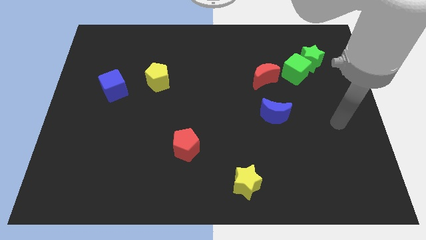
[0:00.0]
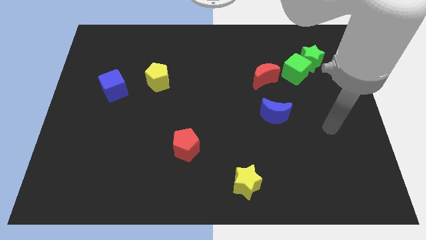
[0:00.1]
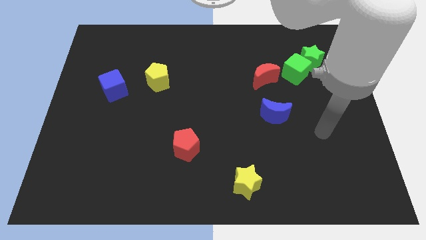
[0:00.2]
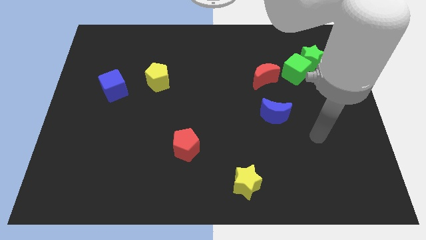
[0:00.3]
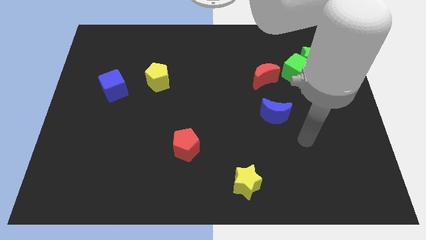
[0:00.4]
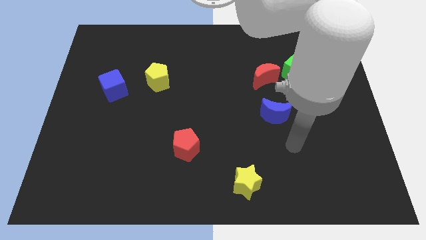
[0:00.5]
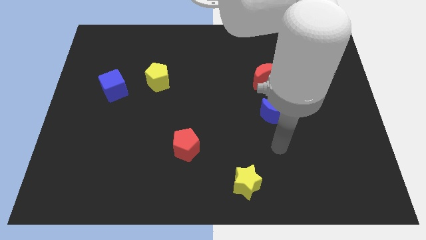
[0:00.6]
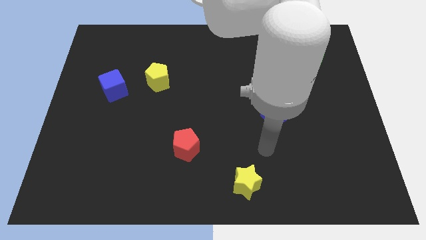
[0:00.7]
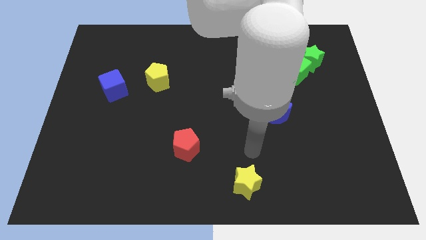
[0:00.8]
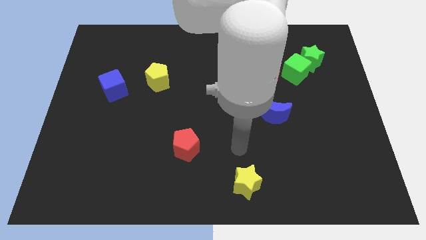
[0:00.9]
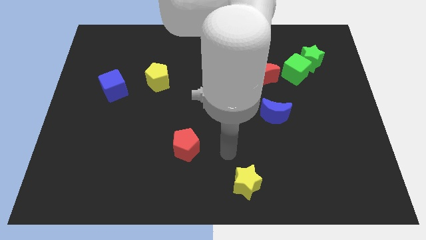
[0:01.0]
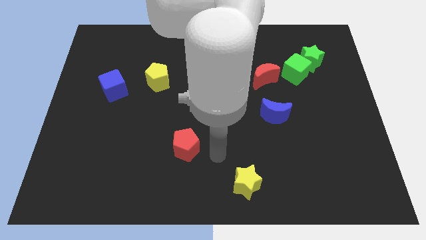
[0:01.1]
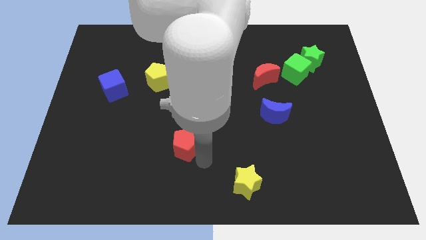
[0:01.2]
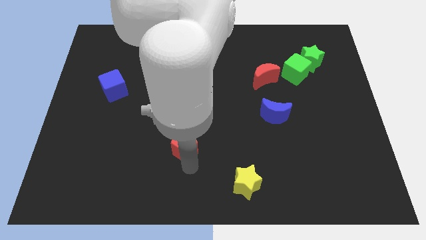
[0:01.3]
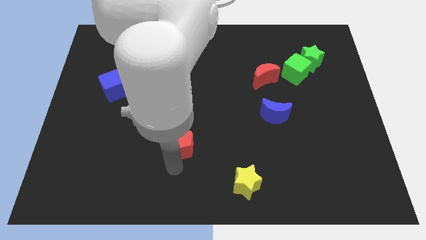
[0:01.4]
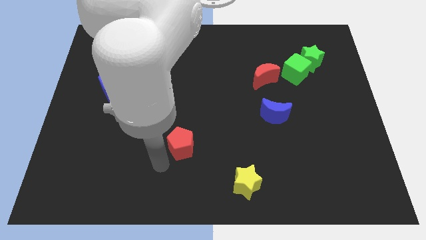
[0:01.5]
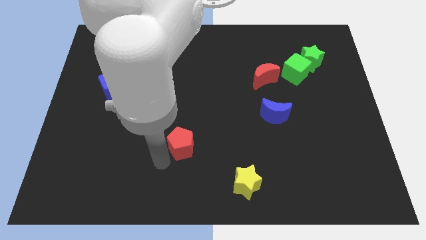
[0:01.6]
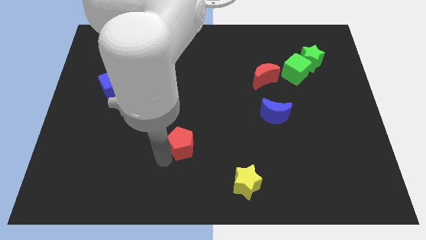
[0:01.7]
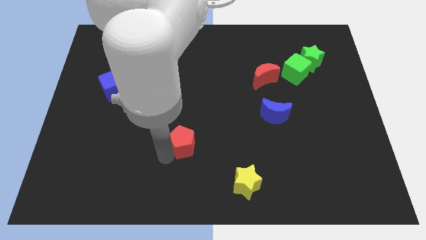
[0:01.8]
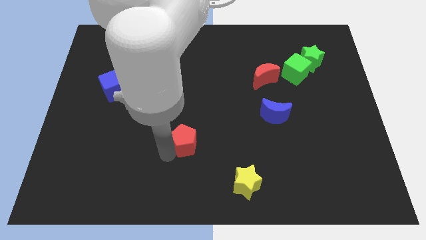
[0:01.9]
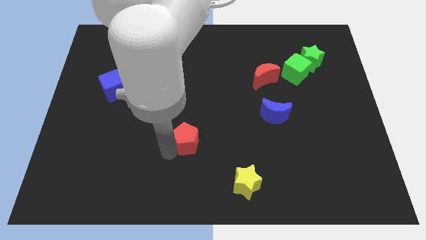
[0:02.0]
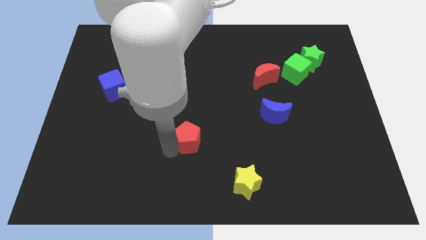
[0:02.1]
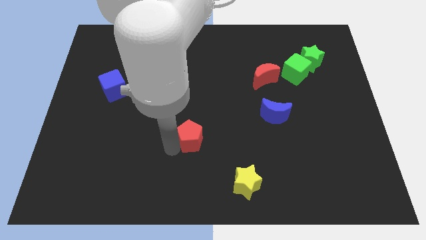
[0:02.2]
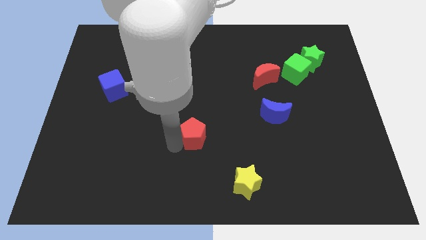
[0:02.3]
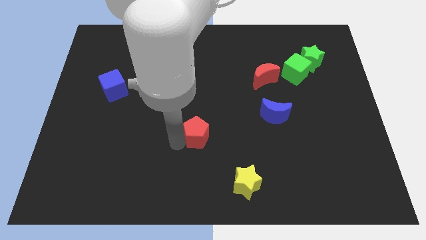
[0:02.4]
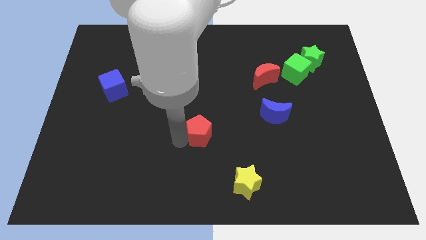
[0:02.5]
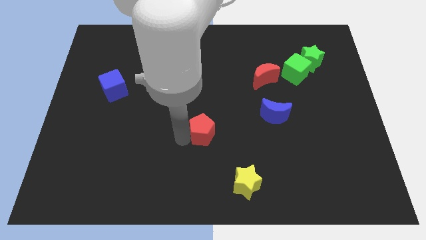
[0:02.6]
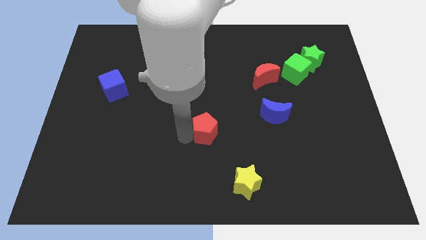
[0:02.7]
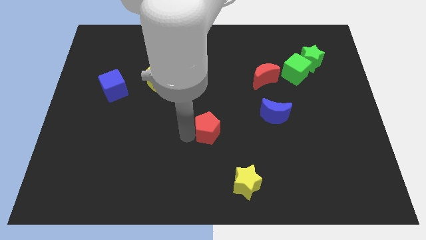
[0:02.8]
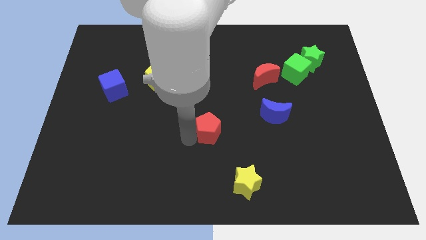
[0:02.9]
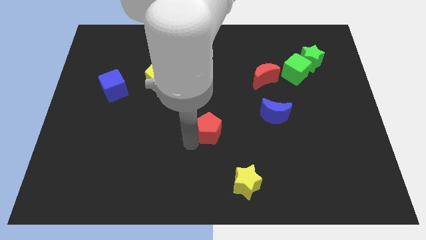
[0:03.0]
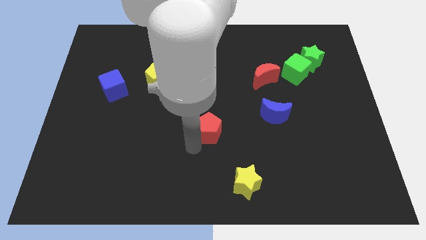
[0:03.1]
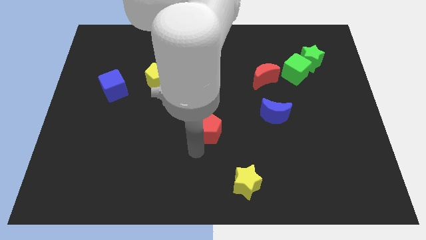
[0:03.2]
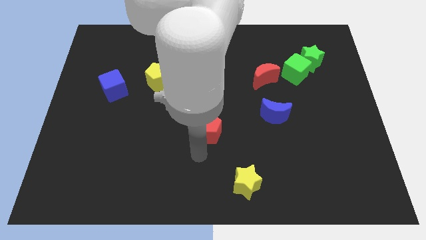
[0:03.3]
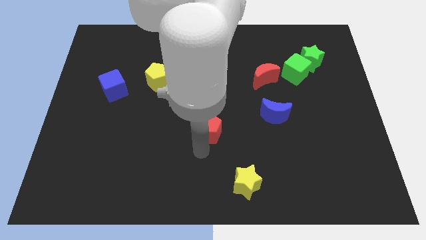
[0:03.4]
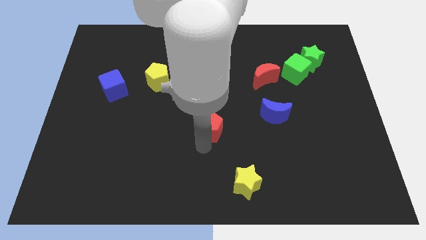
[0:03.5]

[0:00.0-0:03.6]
slightly move the red pentagon up and to the right diagonally

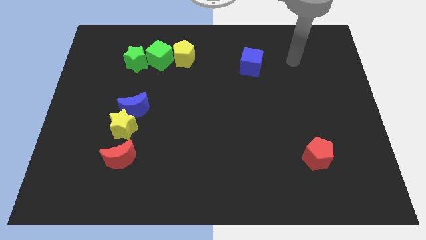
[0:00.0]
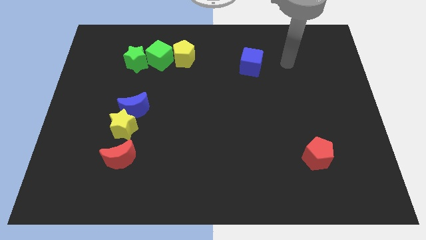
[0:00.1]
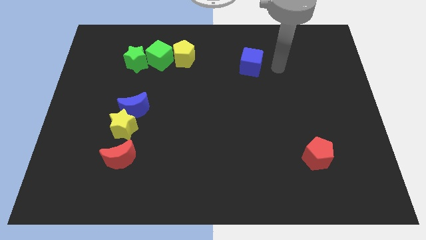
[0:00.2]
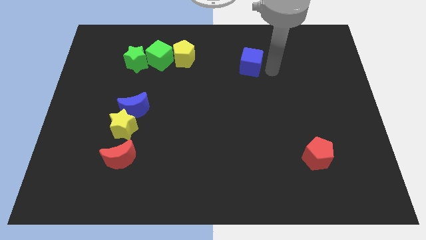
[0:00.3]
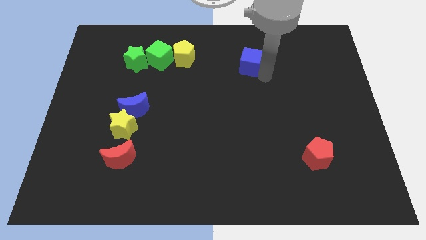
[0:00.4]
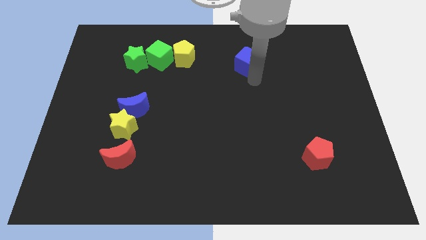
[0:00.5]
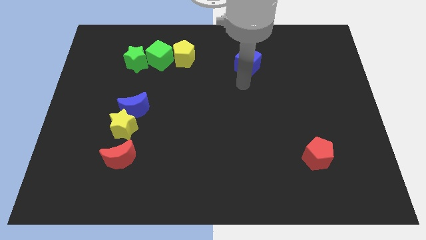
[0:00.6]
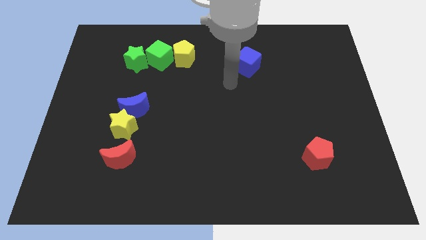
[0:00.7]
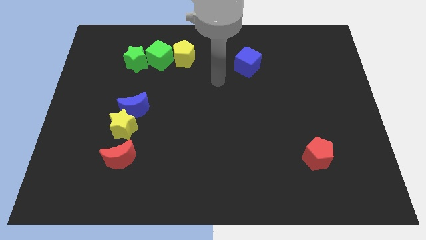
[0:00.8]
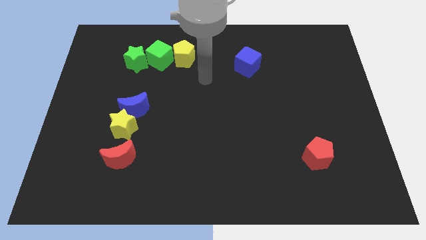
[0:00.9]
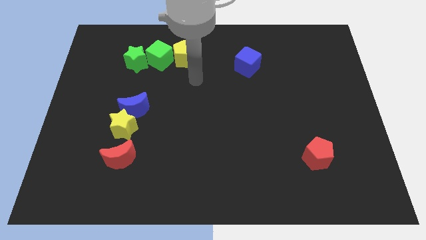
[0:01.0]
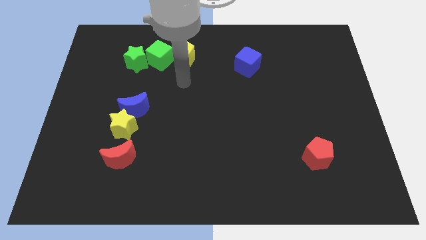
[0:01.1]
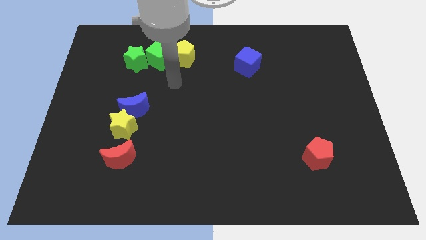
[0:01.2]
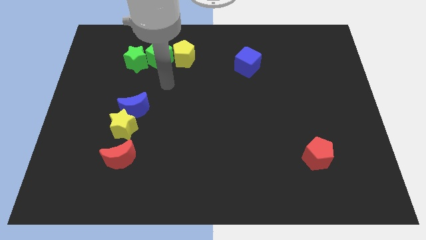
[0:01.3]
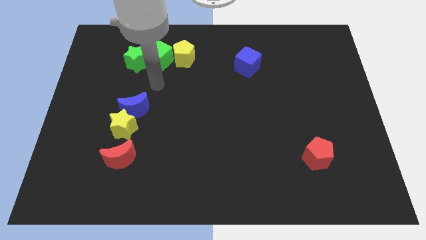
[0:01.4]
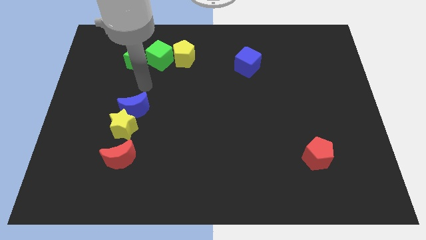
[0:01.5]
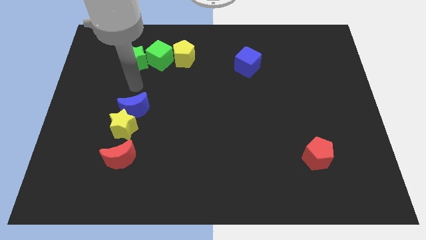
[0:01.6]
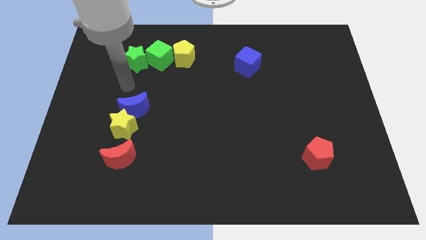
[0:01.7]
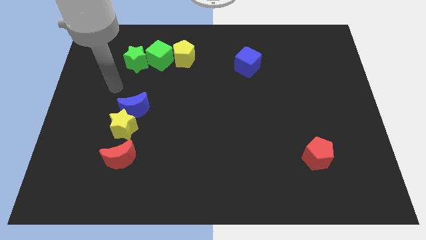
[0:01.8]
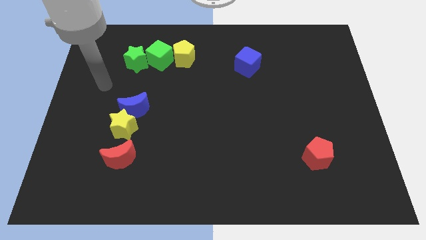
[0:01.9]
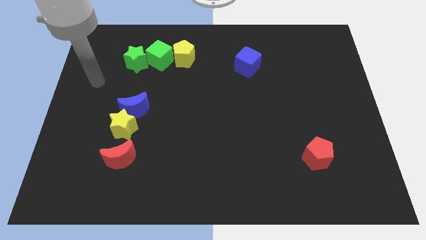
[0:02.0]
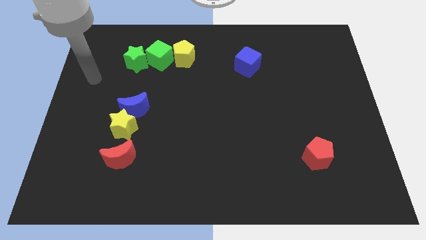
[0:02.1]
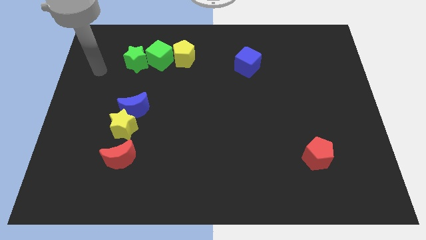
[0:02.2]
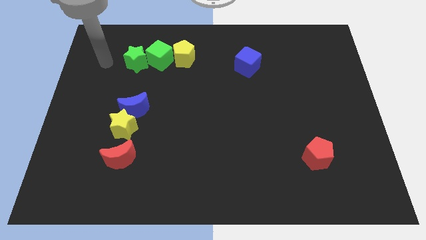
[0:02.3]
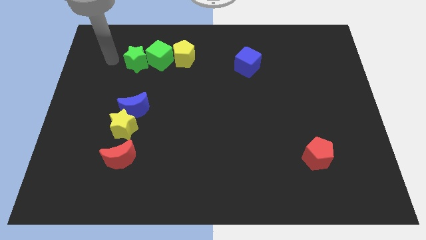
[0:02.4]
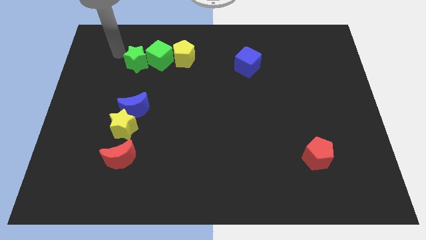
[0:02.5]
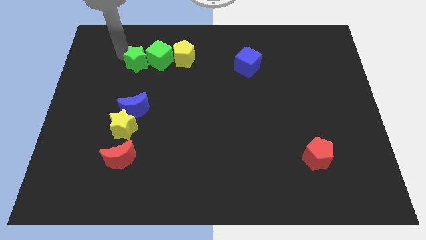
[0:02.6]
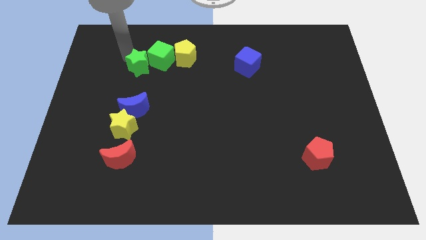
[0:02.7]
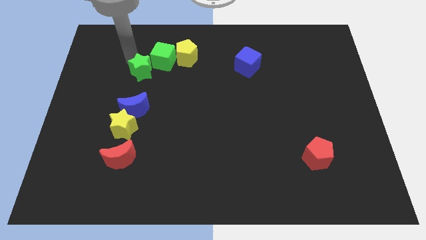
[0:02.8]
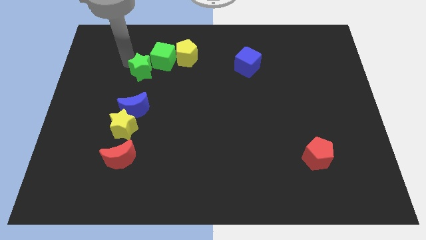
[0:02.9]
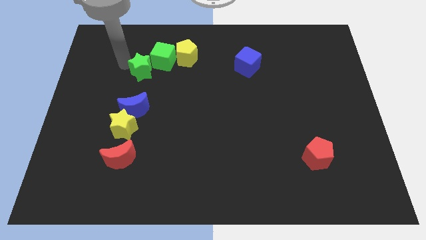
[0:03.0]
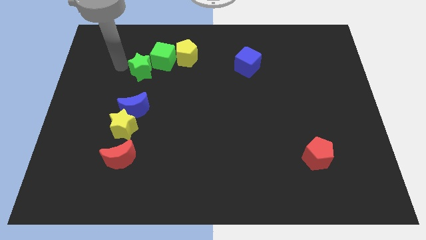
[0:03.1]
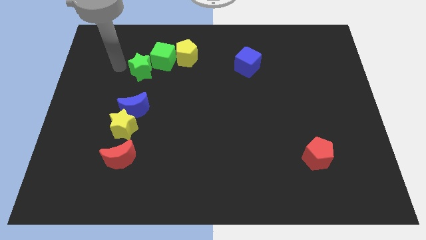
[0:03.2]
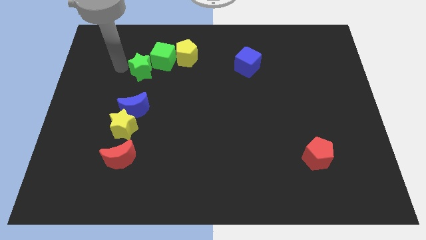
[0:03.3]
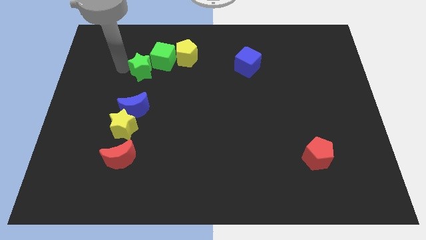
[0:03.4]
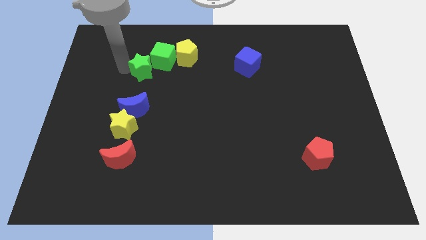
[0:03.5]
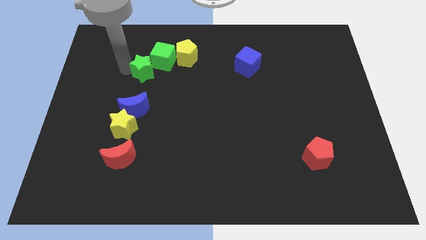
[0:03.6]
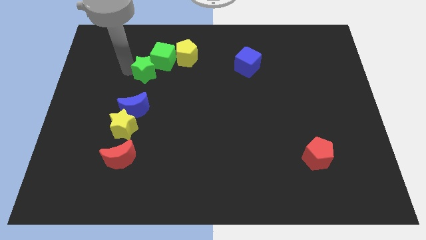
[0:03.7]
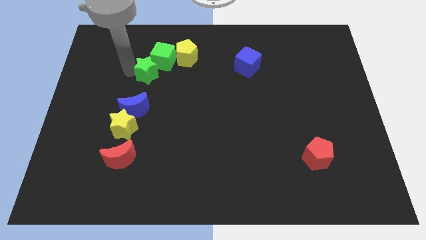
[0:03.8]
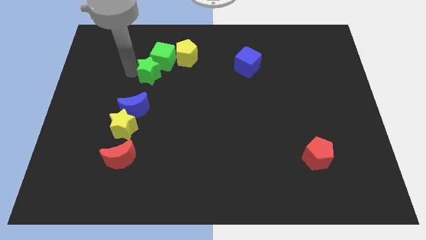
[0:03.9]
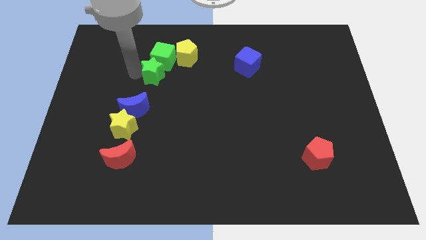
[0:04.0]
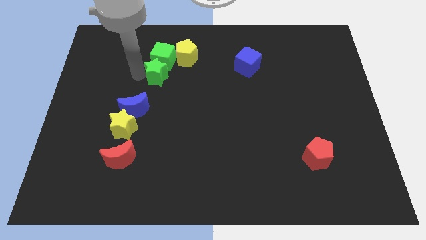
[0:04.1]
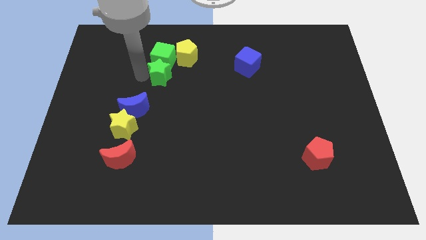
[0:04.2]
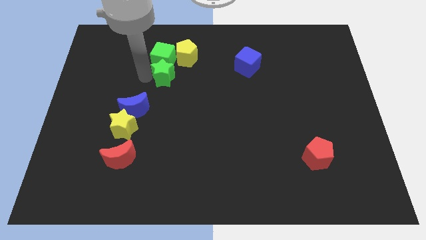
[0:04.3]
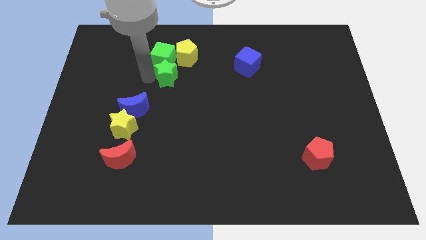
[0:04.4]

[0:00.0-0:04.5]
move the green star slightly to the right

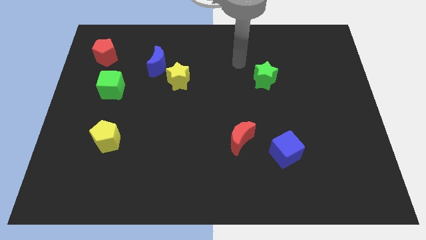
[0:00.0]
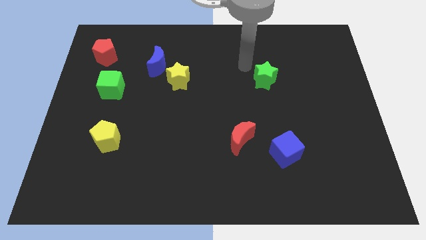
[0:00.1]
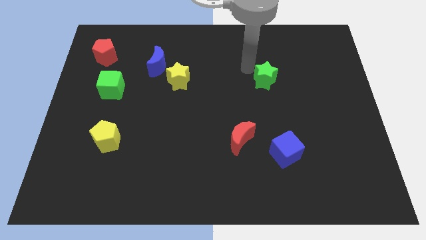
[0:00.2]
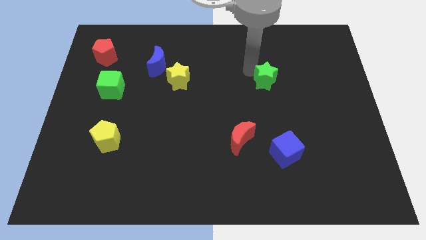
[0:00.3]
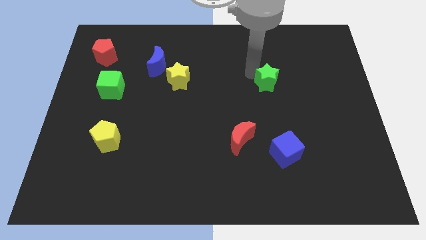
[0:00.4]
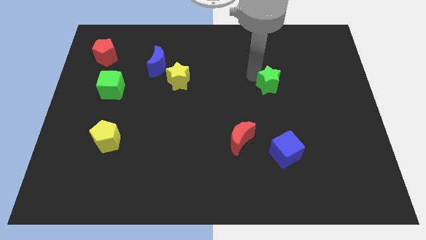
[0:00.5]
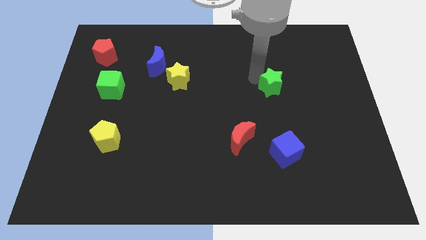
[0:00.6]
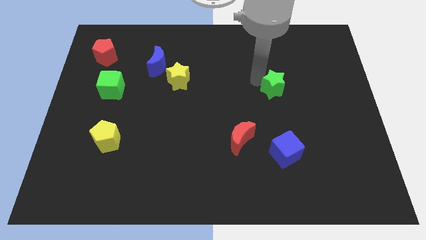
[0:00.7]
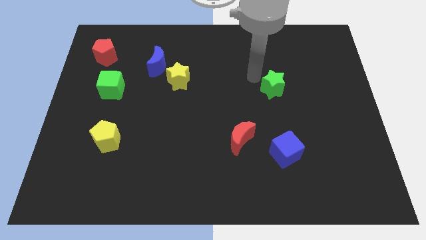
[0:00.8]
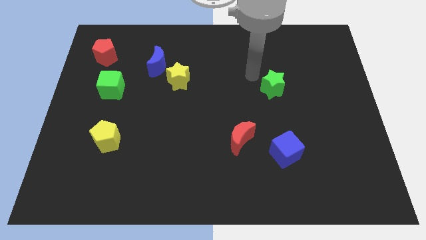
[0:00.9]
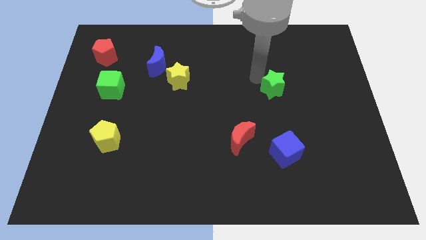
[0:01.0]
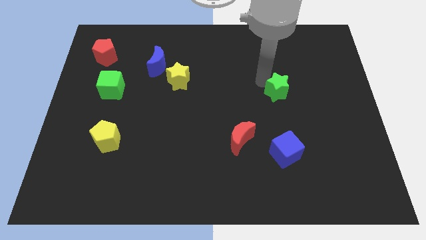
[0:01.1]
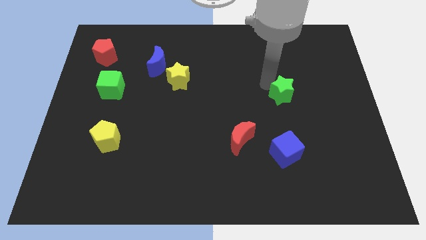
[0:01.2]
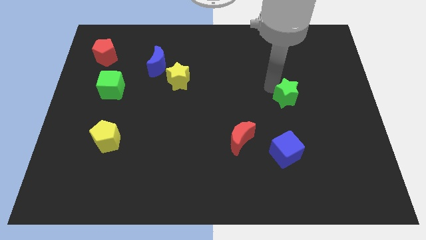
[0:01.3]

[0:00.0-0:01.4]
push the green star somewhat down and then right
